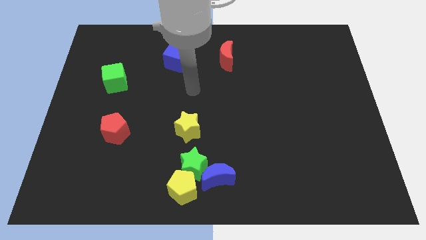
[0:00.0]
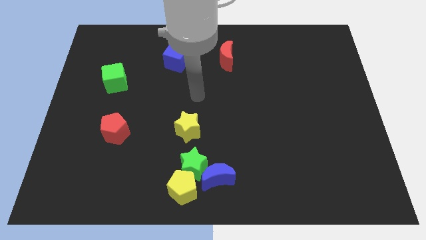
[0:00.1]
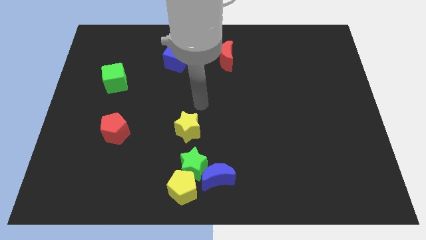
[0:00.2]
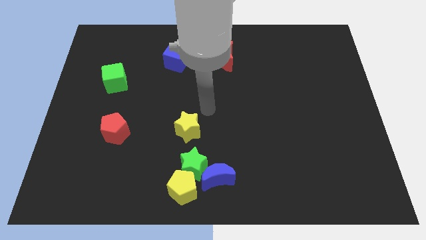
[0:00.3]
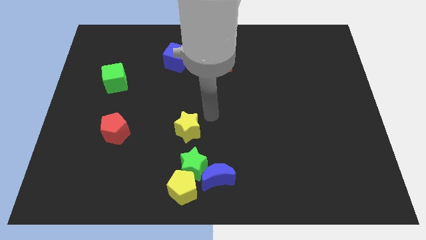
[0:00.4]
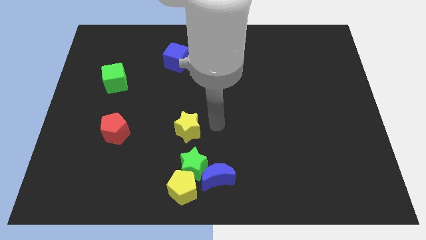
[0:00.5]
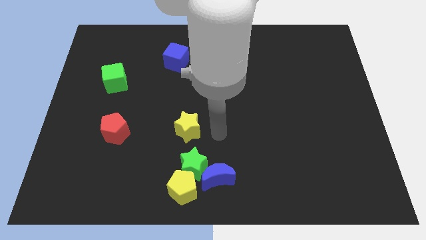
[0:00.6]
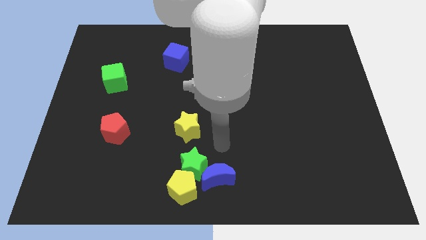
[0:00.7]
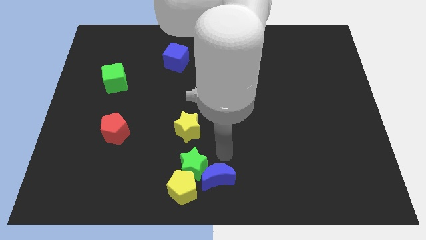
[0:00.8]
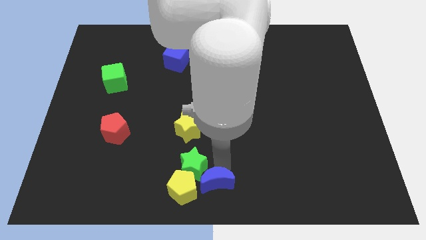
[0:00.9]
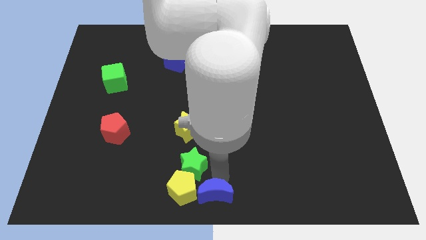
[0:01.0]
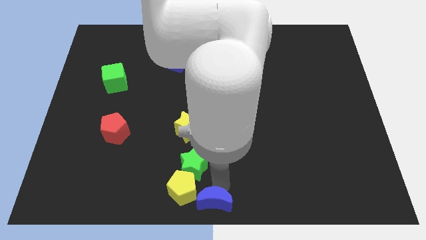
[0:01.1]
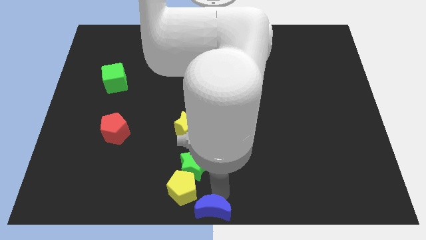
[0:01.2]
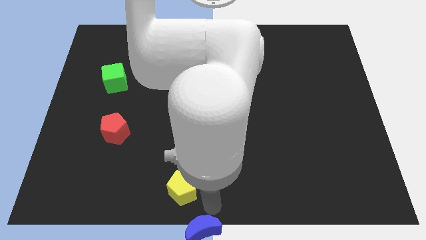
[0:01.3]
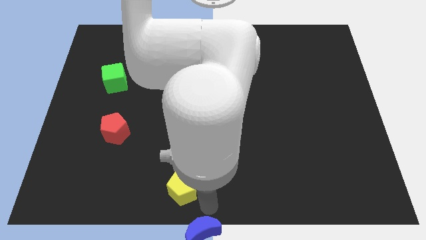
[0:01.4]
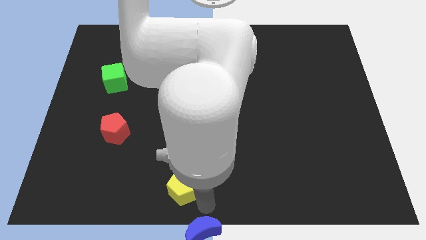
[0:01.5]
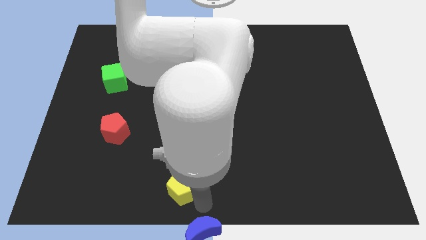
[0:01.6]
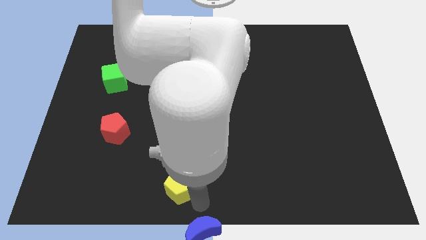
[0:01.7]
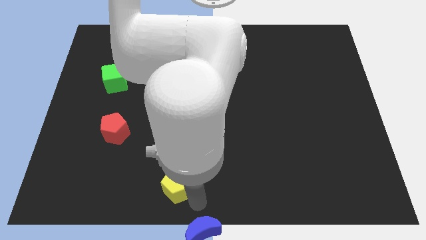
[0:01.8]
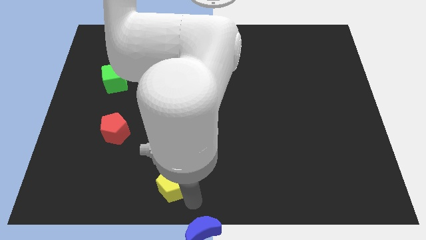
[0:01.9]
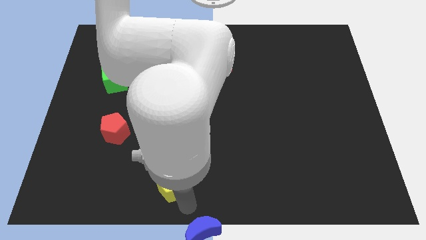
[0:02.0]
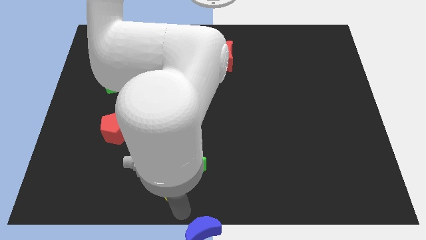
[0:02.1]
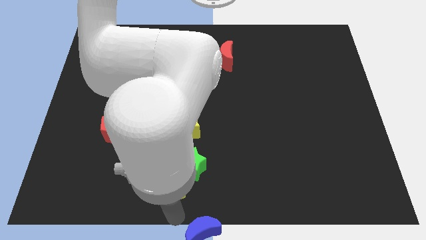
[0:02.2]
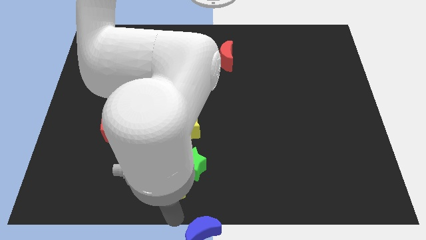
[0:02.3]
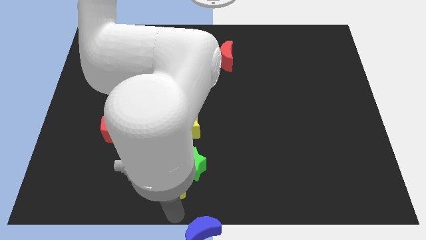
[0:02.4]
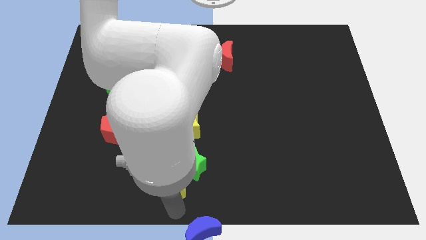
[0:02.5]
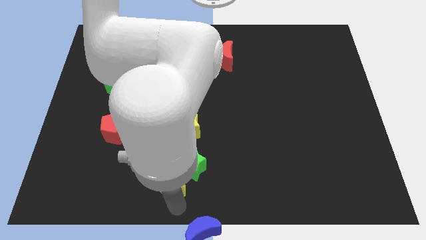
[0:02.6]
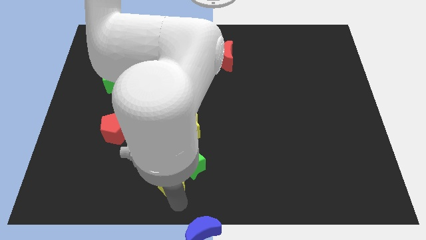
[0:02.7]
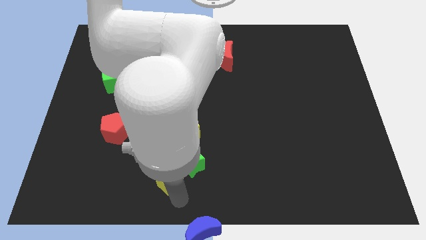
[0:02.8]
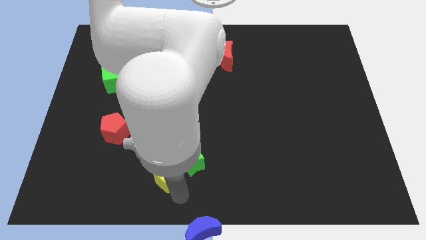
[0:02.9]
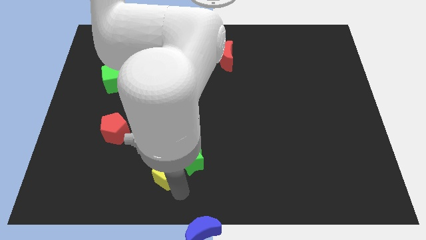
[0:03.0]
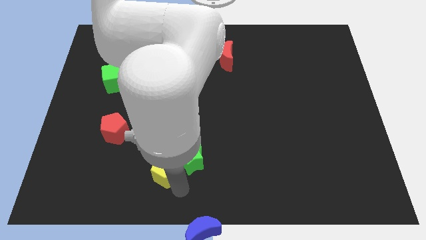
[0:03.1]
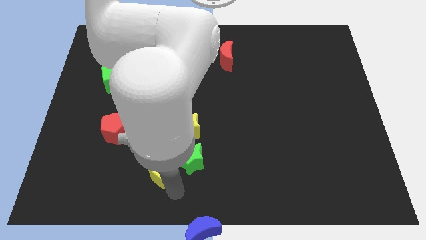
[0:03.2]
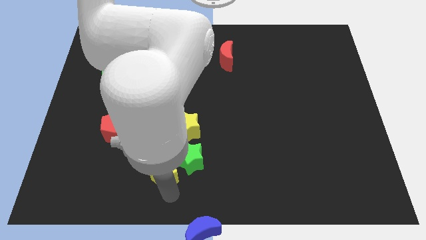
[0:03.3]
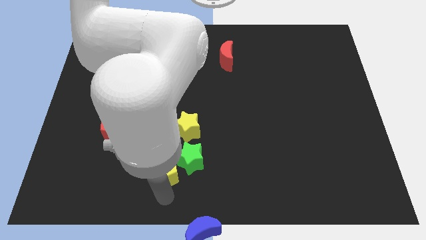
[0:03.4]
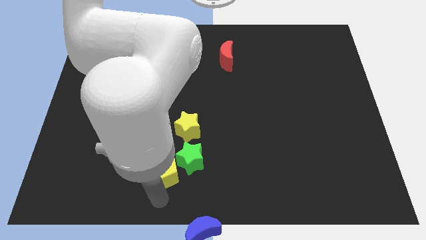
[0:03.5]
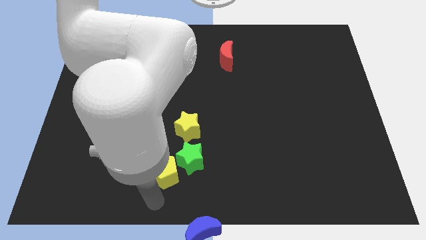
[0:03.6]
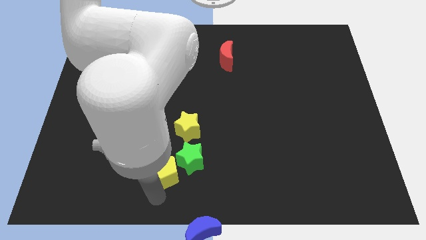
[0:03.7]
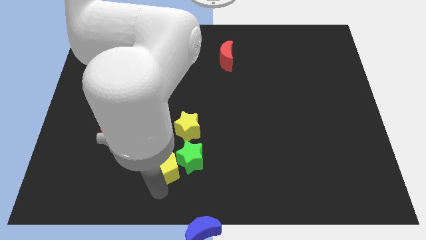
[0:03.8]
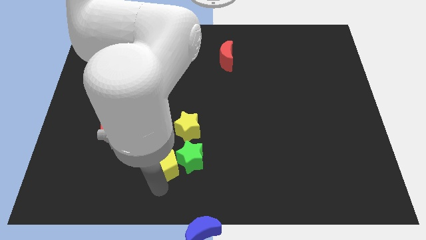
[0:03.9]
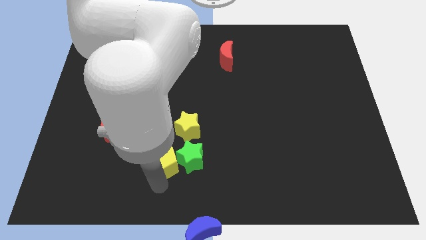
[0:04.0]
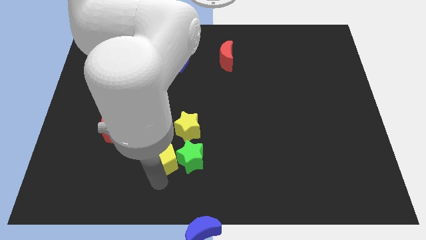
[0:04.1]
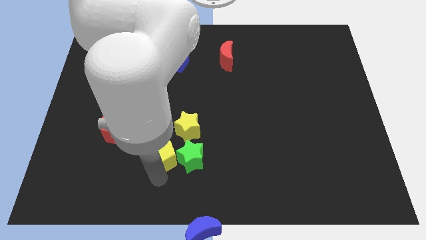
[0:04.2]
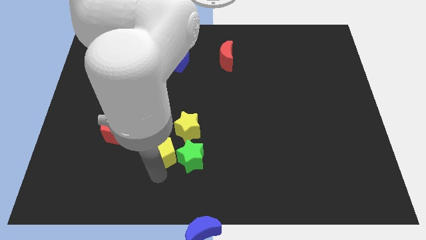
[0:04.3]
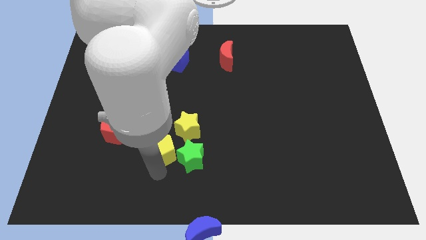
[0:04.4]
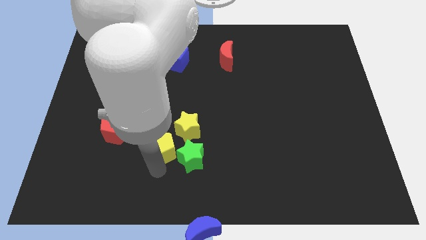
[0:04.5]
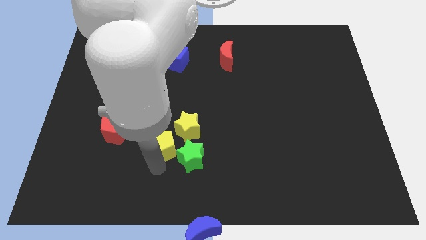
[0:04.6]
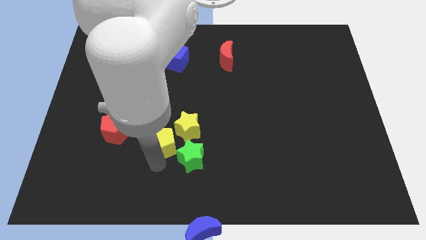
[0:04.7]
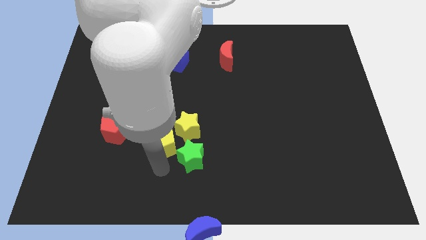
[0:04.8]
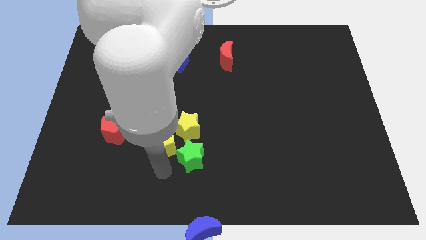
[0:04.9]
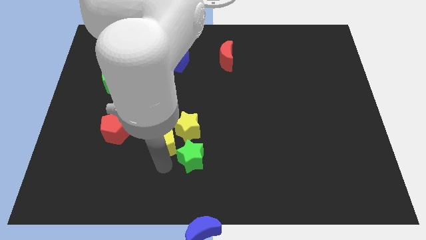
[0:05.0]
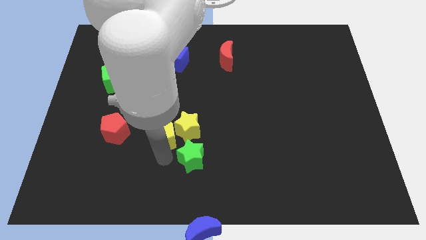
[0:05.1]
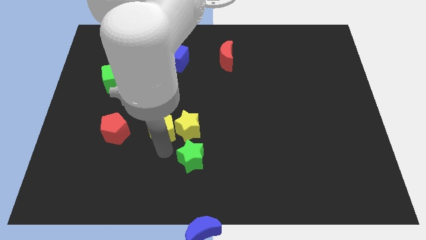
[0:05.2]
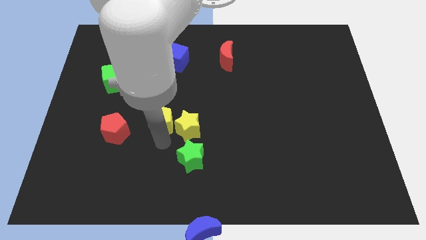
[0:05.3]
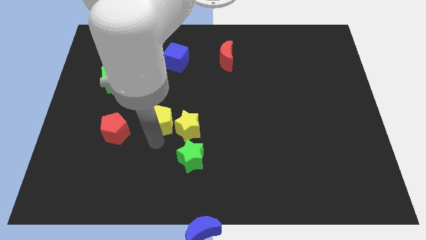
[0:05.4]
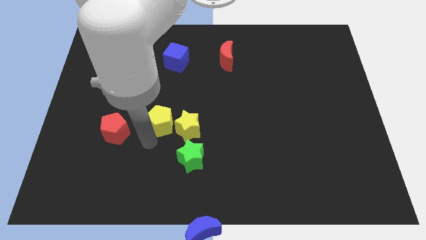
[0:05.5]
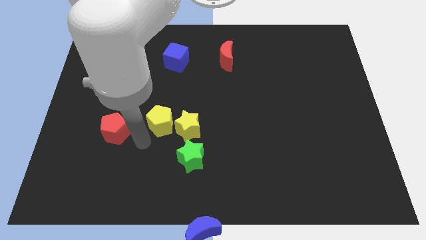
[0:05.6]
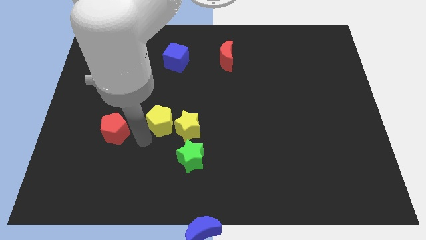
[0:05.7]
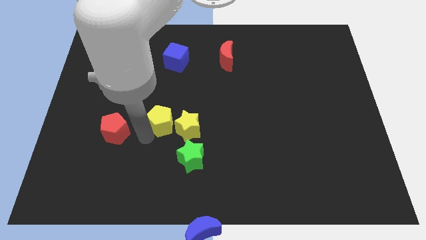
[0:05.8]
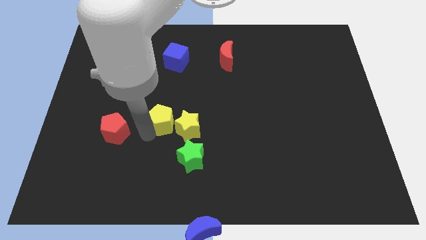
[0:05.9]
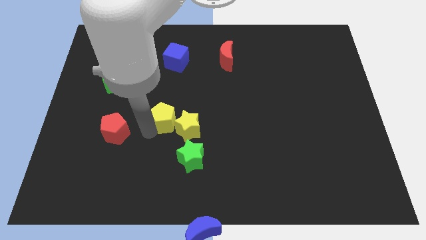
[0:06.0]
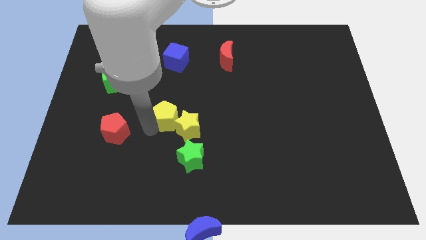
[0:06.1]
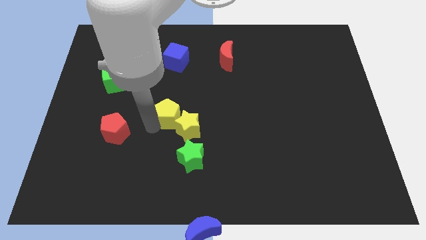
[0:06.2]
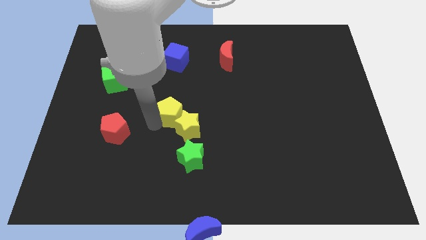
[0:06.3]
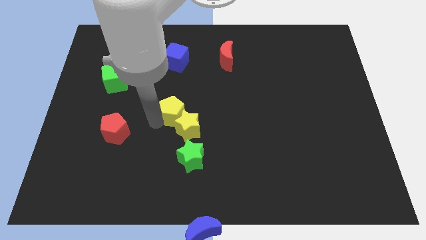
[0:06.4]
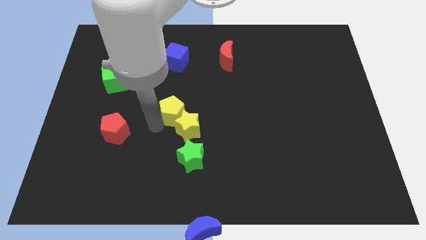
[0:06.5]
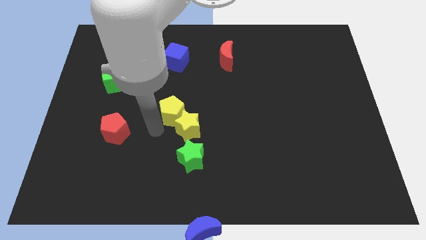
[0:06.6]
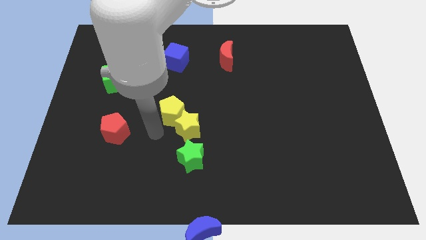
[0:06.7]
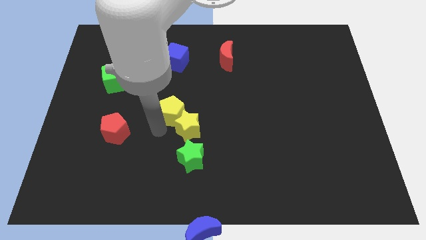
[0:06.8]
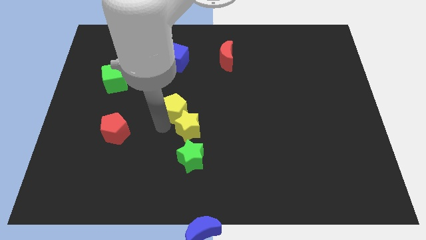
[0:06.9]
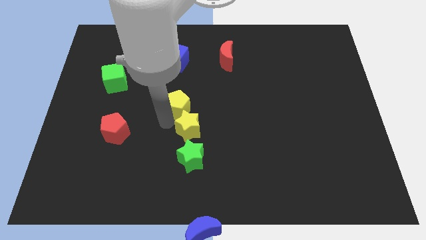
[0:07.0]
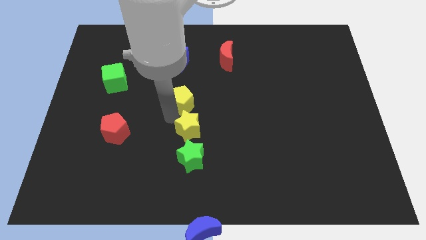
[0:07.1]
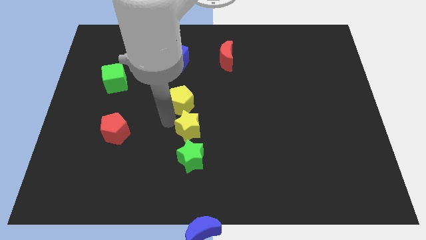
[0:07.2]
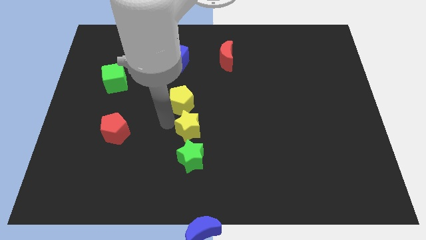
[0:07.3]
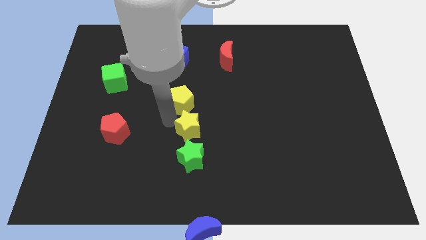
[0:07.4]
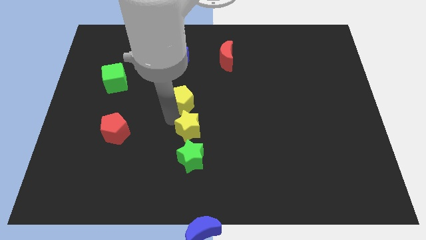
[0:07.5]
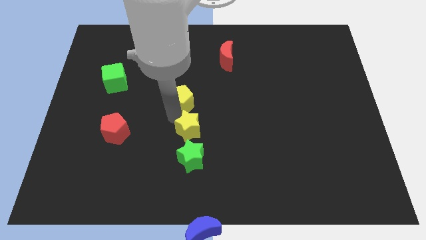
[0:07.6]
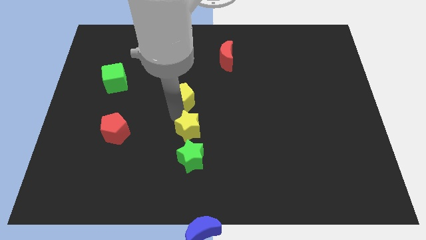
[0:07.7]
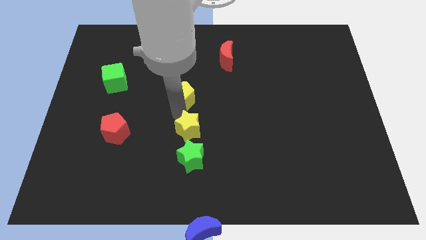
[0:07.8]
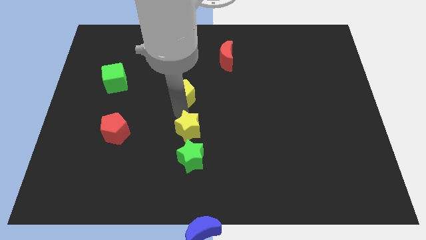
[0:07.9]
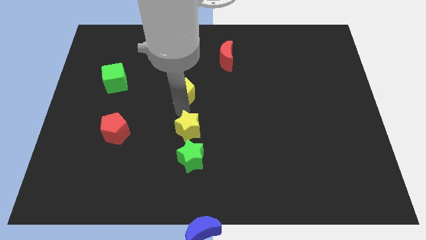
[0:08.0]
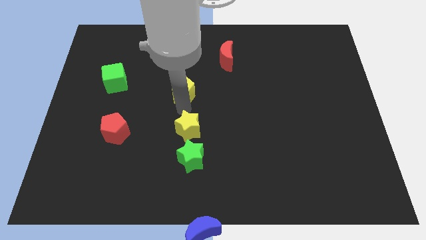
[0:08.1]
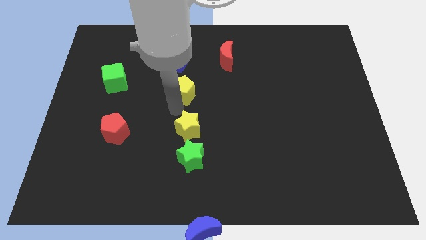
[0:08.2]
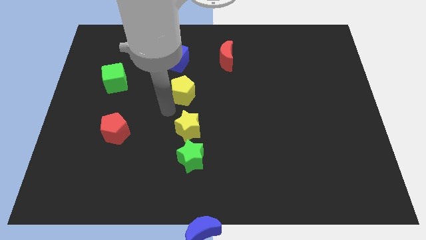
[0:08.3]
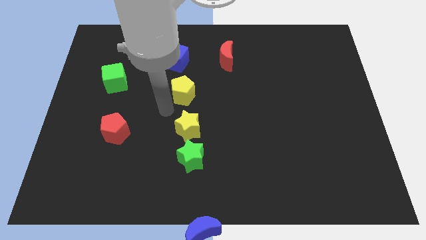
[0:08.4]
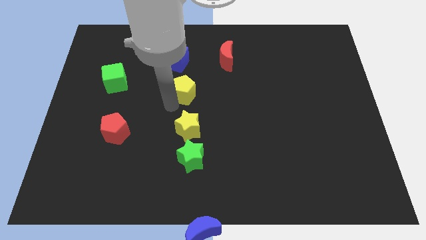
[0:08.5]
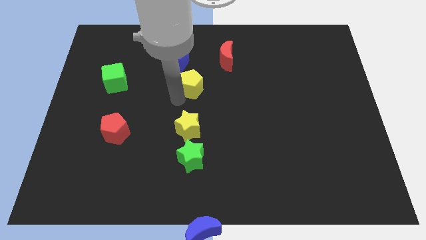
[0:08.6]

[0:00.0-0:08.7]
put the yellow pentagon to the bottom left side of the red moon
